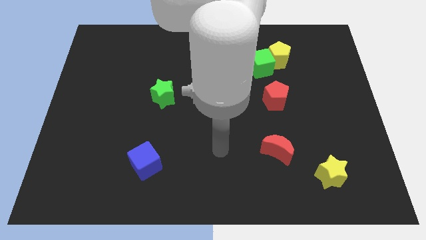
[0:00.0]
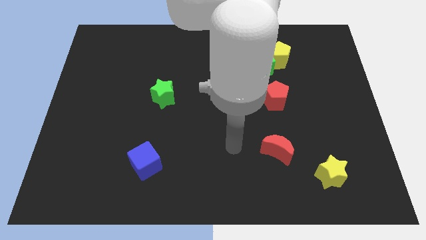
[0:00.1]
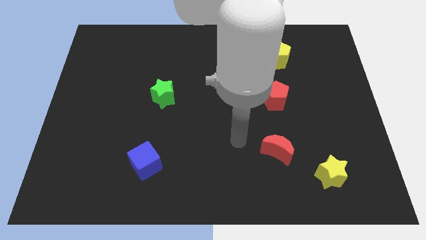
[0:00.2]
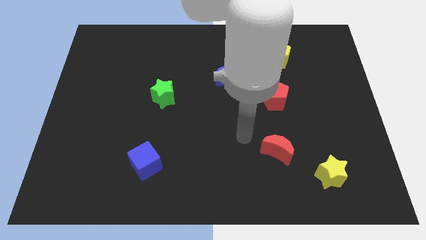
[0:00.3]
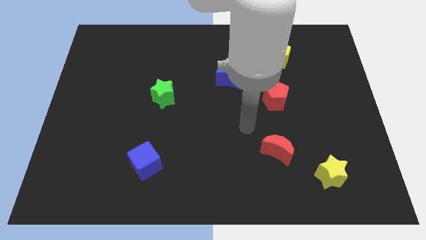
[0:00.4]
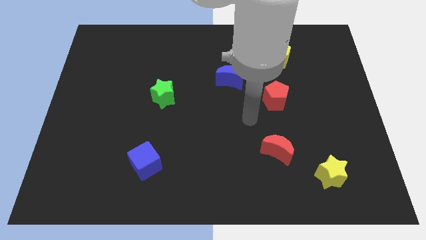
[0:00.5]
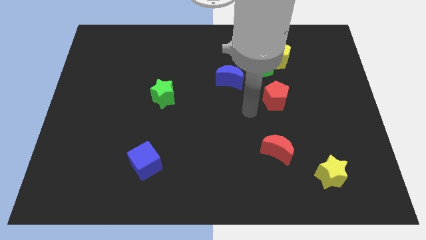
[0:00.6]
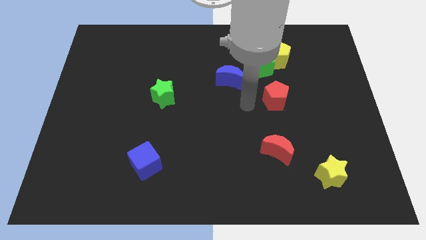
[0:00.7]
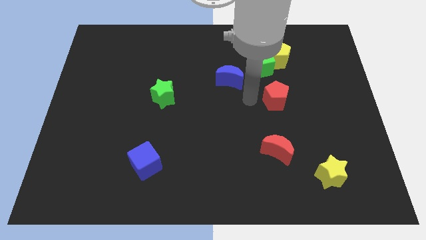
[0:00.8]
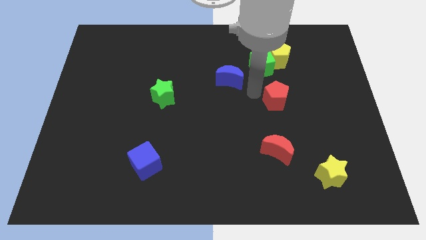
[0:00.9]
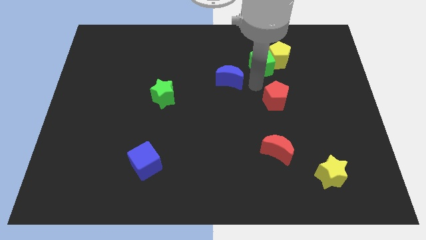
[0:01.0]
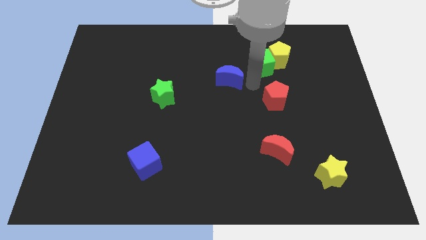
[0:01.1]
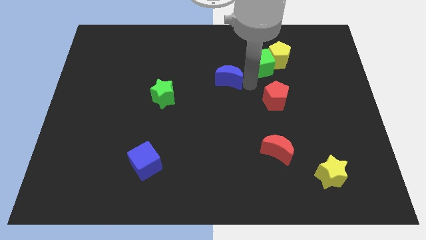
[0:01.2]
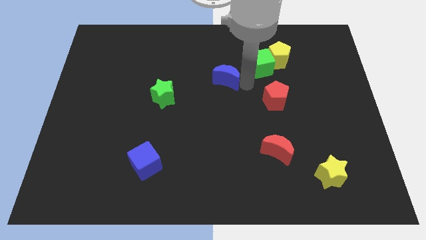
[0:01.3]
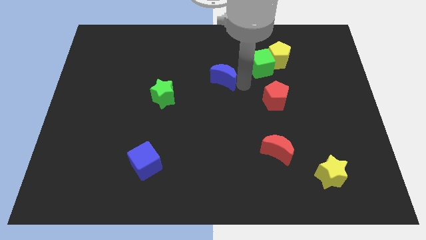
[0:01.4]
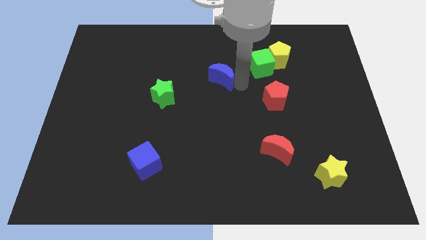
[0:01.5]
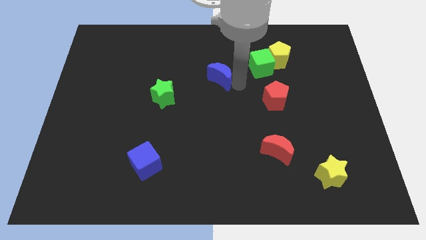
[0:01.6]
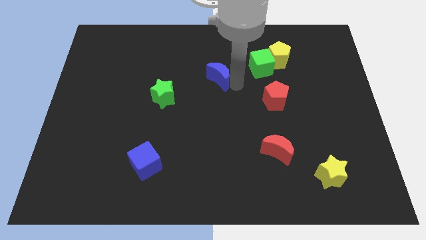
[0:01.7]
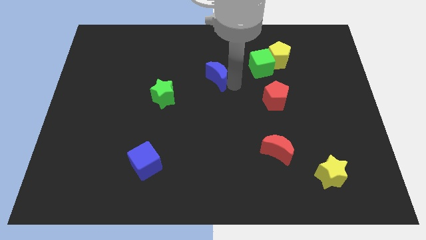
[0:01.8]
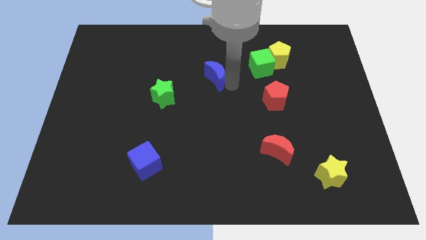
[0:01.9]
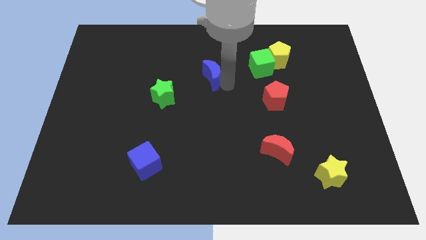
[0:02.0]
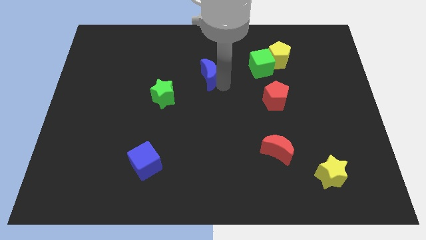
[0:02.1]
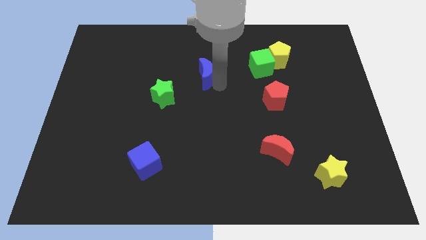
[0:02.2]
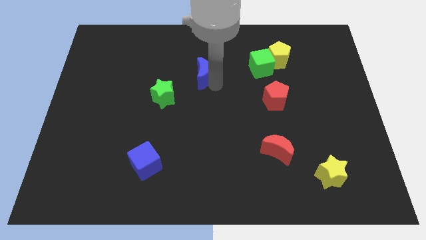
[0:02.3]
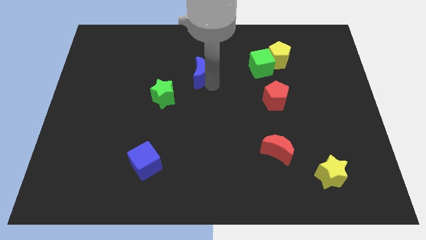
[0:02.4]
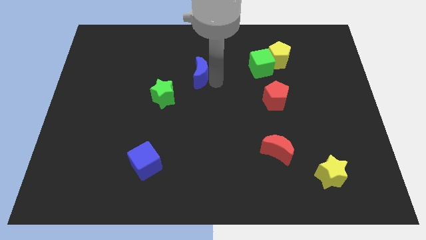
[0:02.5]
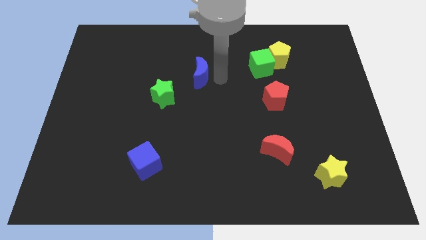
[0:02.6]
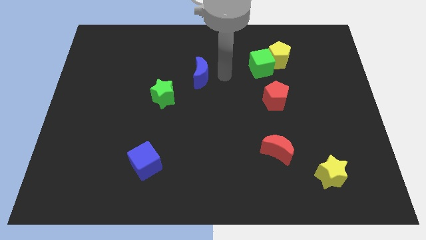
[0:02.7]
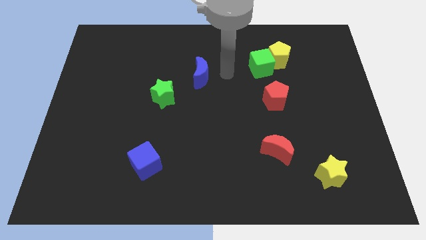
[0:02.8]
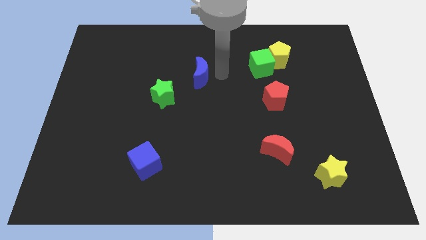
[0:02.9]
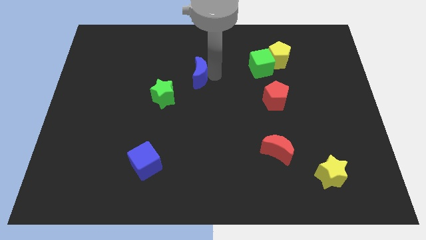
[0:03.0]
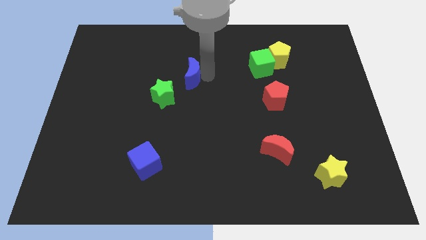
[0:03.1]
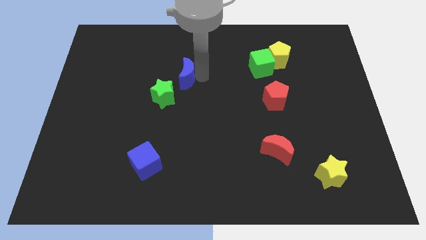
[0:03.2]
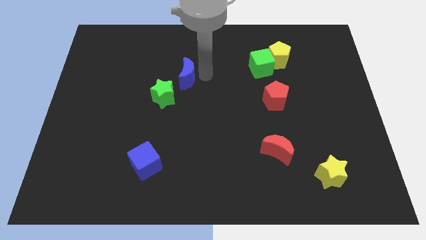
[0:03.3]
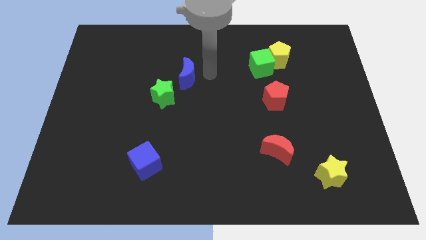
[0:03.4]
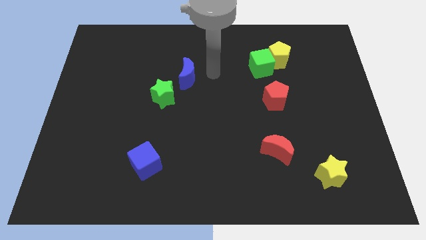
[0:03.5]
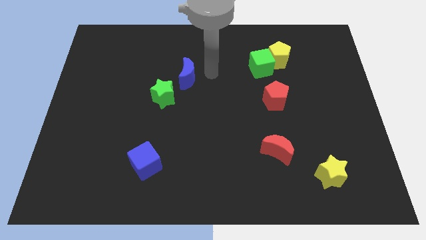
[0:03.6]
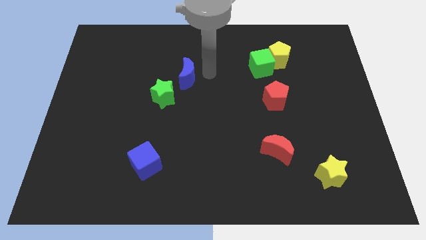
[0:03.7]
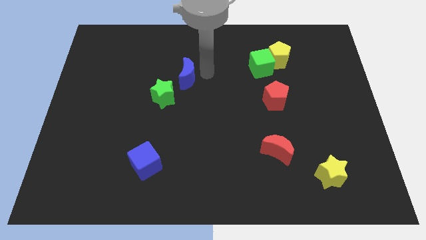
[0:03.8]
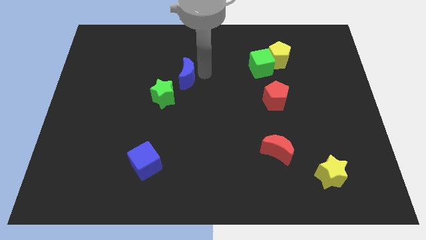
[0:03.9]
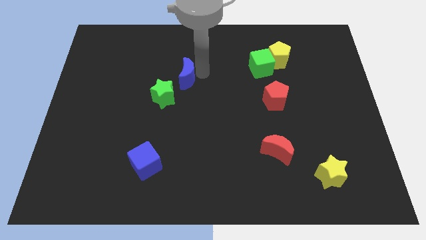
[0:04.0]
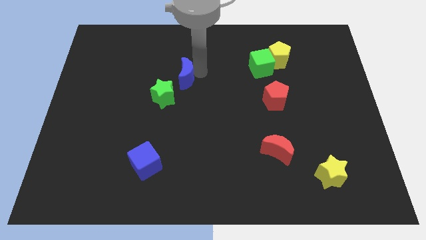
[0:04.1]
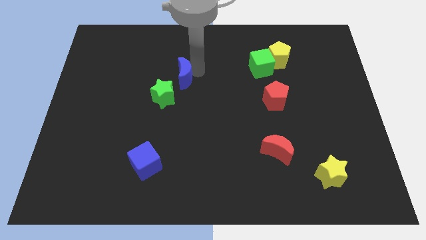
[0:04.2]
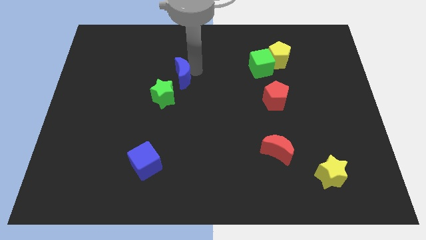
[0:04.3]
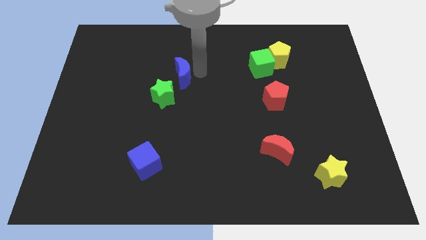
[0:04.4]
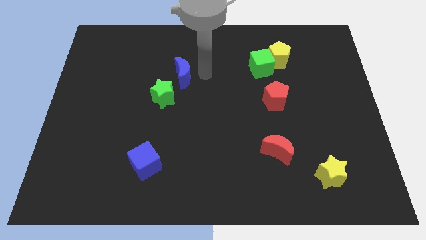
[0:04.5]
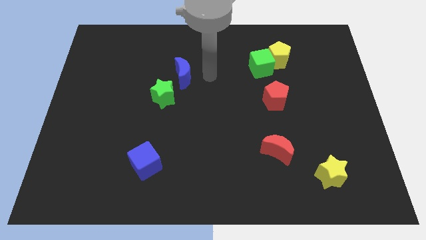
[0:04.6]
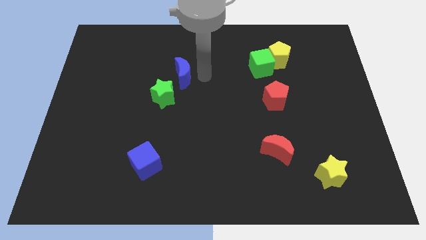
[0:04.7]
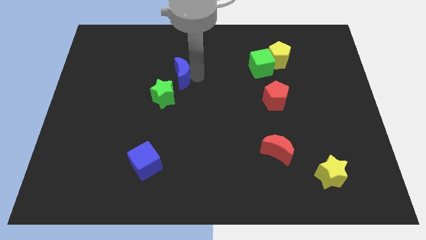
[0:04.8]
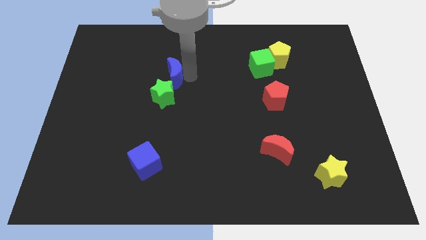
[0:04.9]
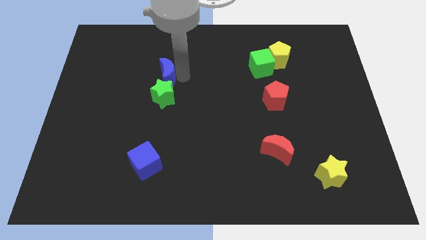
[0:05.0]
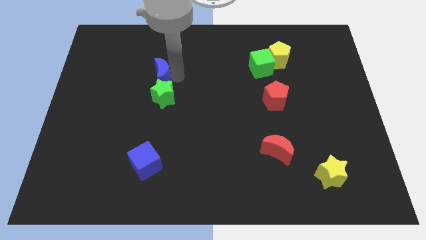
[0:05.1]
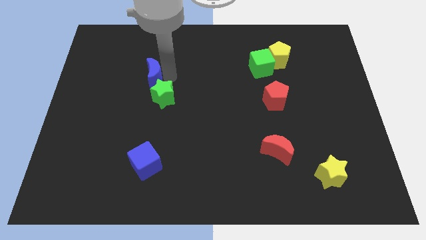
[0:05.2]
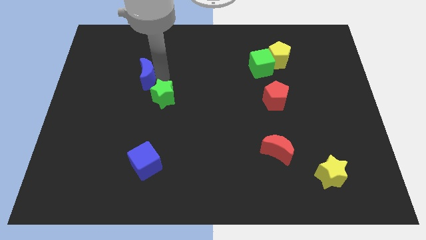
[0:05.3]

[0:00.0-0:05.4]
push the blue moon to the left

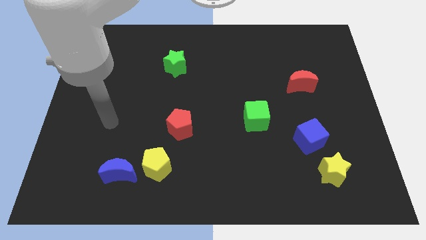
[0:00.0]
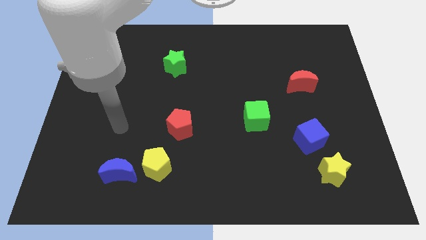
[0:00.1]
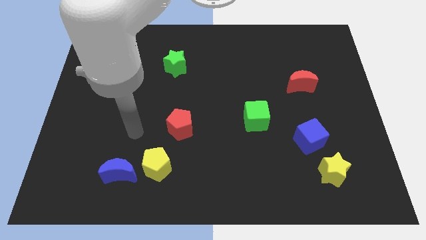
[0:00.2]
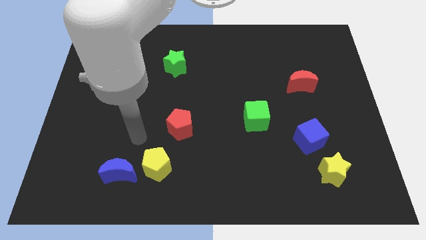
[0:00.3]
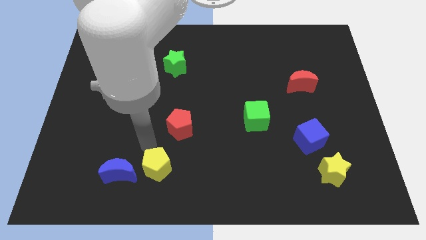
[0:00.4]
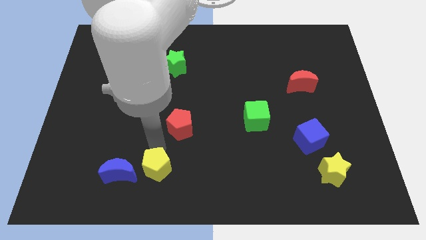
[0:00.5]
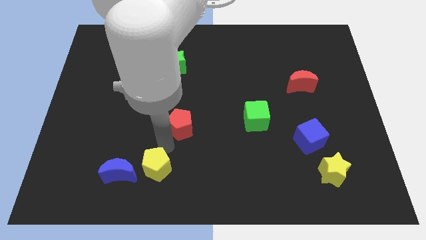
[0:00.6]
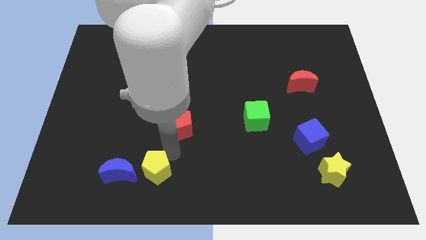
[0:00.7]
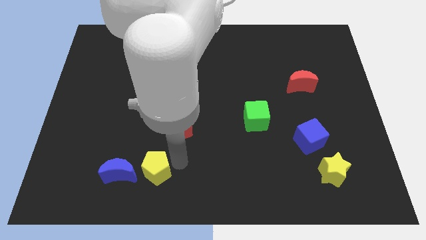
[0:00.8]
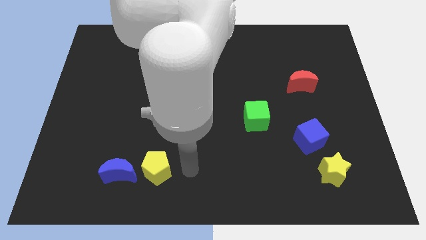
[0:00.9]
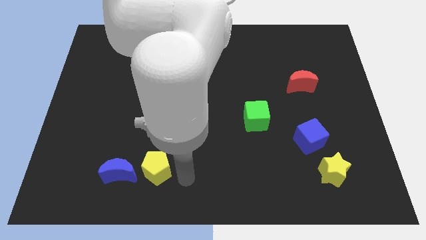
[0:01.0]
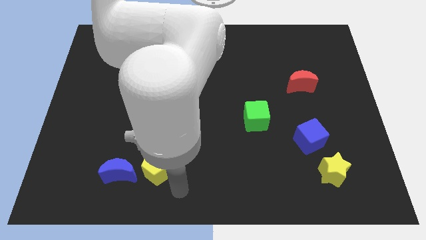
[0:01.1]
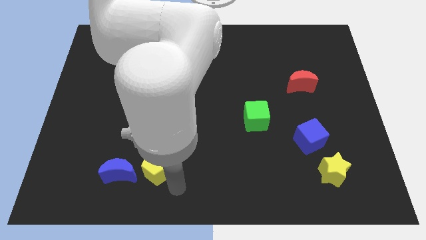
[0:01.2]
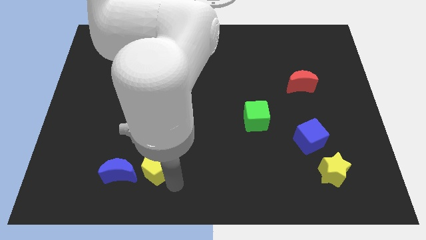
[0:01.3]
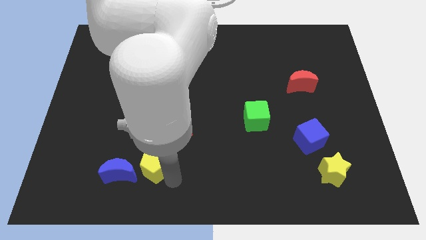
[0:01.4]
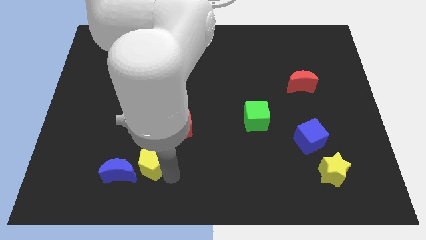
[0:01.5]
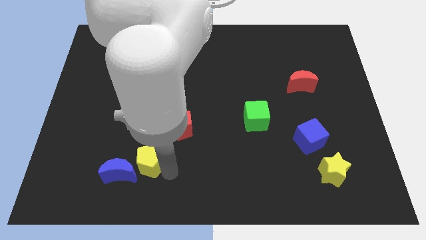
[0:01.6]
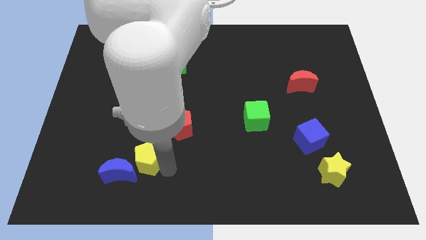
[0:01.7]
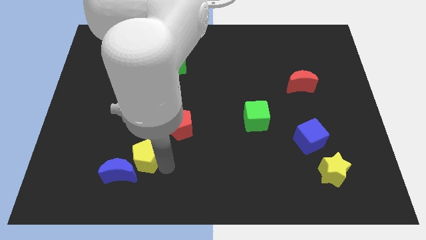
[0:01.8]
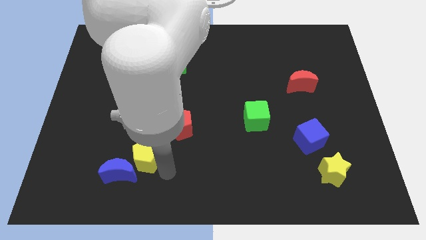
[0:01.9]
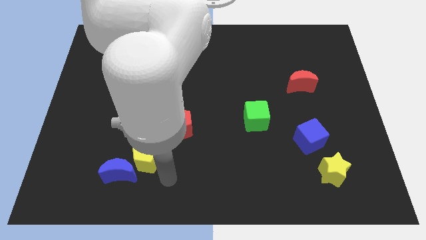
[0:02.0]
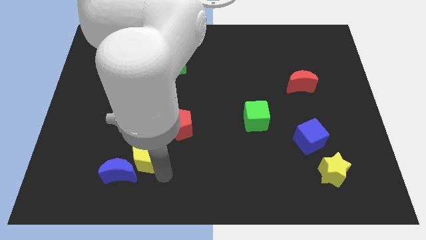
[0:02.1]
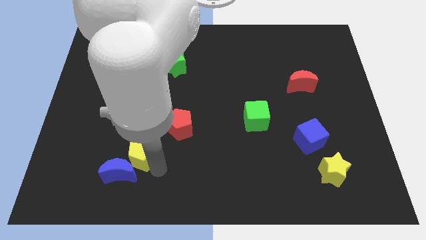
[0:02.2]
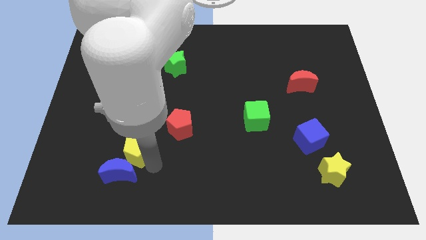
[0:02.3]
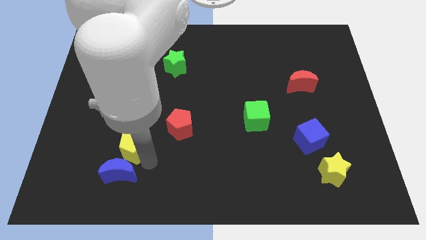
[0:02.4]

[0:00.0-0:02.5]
slightly slide the yellow pentagon up and then to the left
